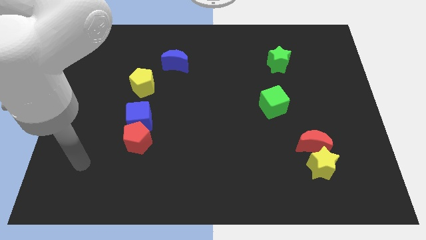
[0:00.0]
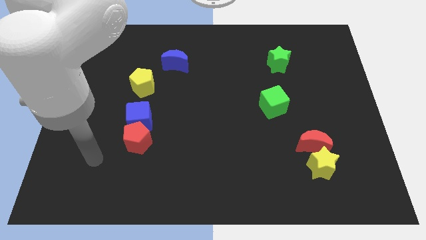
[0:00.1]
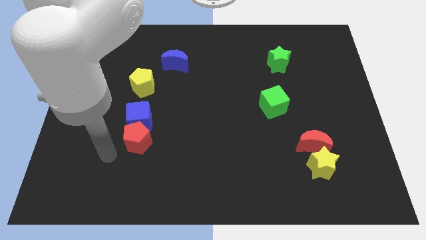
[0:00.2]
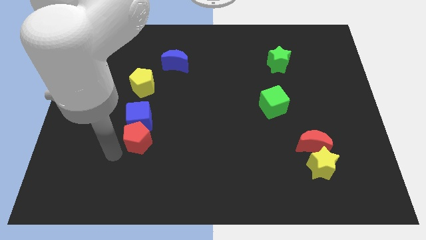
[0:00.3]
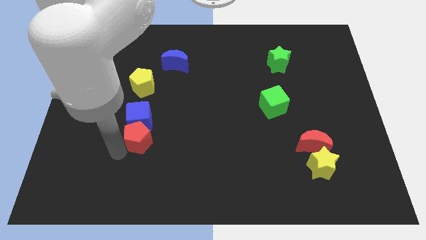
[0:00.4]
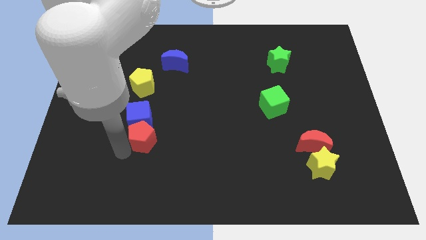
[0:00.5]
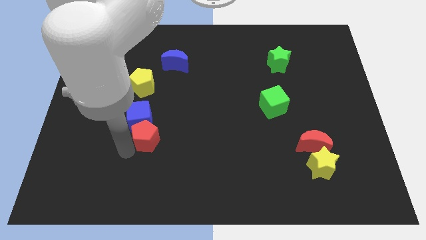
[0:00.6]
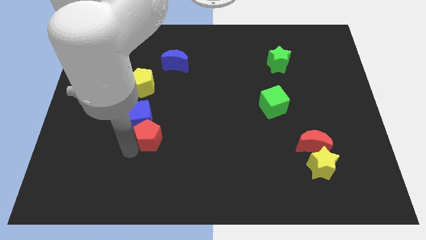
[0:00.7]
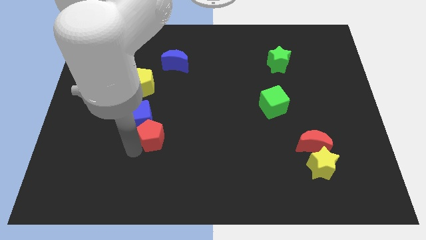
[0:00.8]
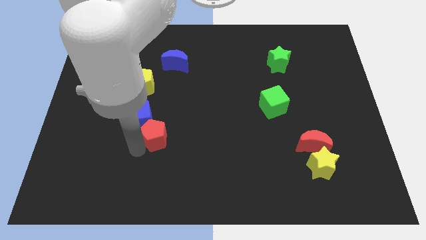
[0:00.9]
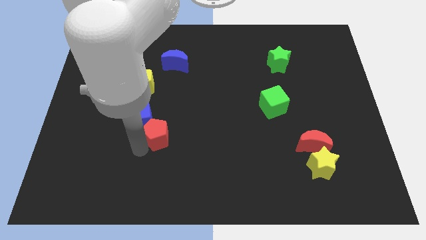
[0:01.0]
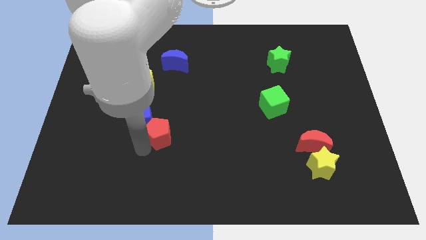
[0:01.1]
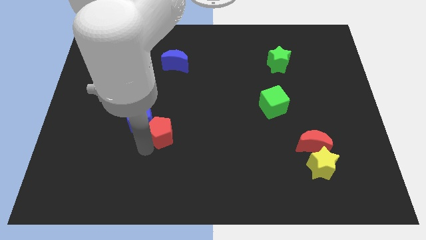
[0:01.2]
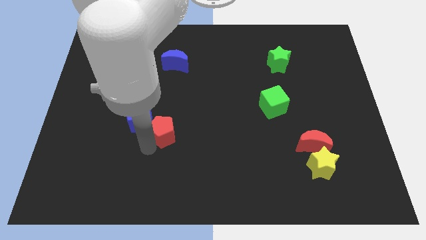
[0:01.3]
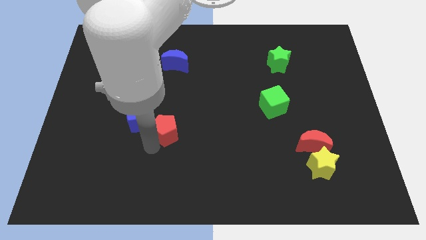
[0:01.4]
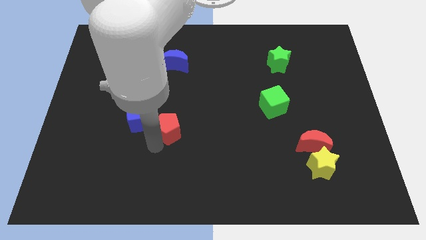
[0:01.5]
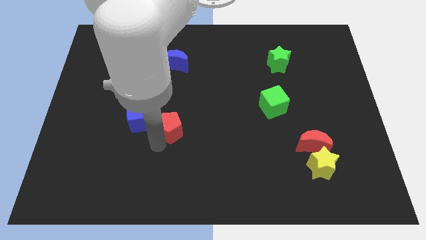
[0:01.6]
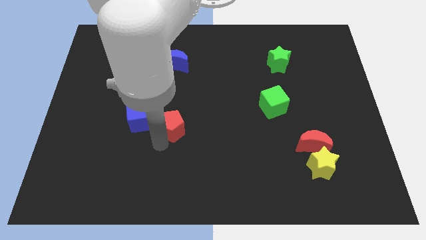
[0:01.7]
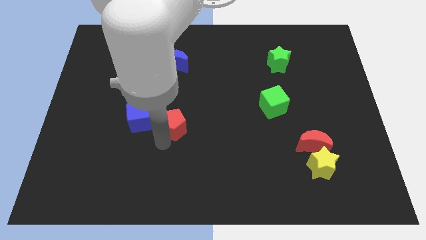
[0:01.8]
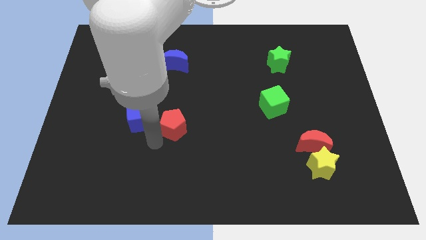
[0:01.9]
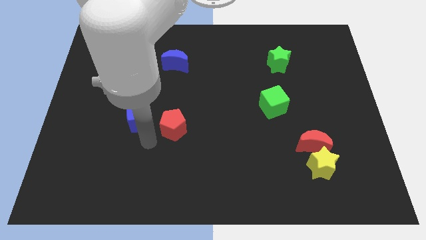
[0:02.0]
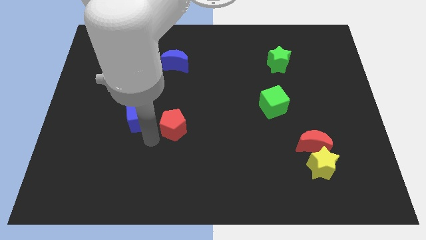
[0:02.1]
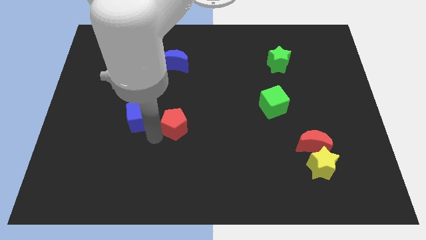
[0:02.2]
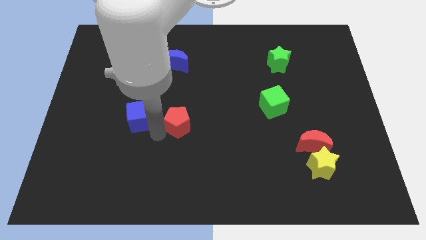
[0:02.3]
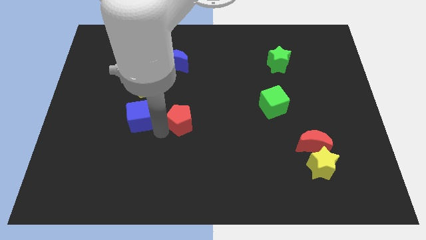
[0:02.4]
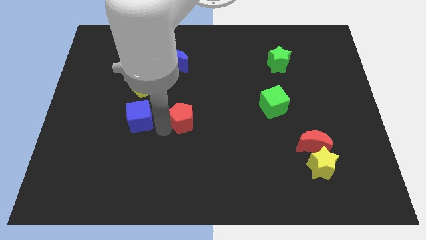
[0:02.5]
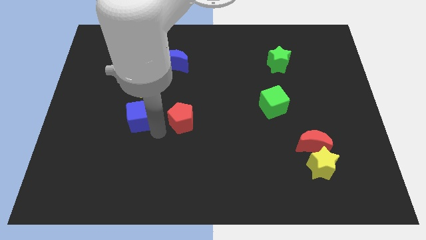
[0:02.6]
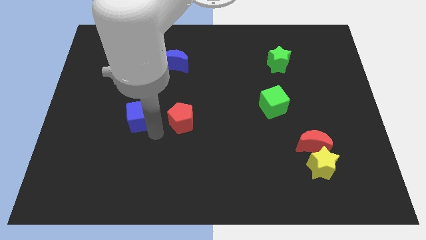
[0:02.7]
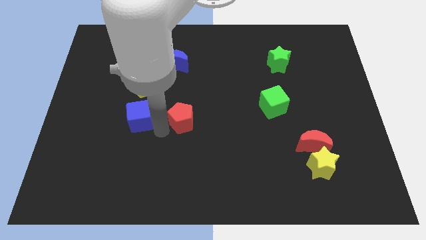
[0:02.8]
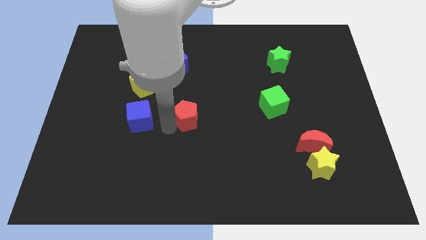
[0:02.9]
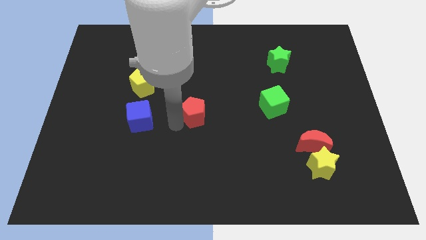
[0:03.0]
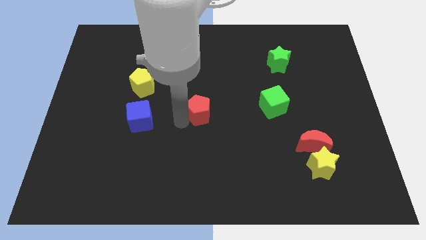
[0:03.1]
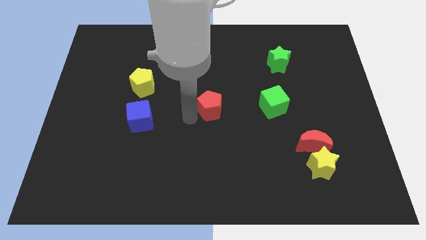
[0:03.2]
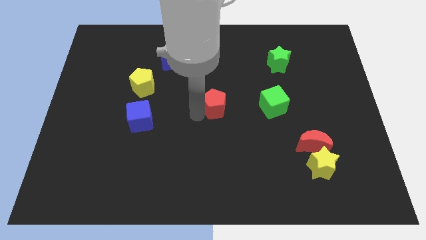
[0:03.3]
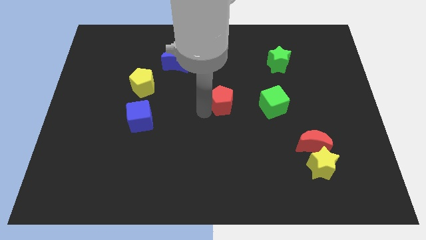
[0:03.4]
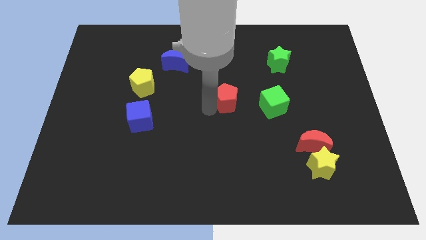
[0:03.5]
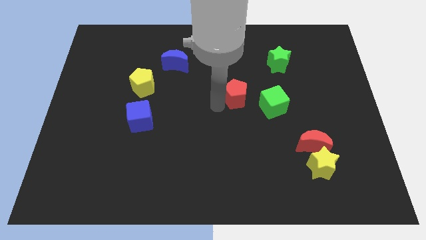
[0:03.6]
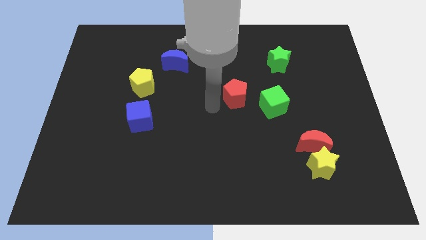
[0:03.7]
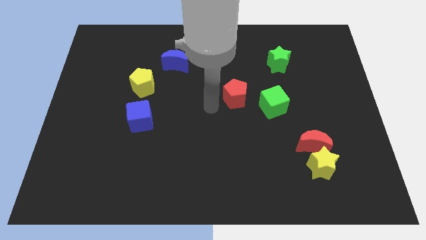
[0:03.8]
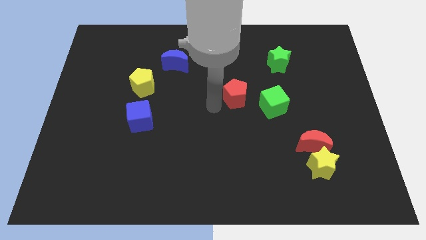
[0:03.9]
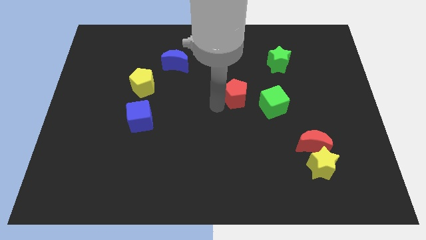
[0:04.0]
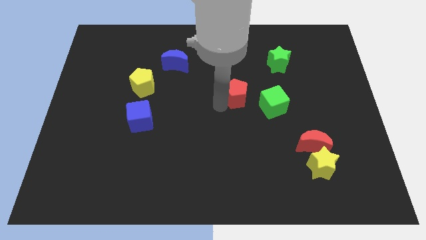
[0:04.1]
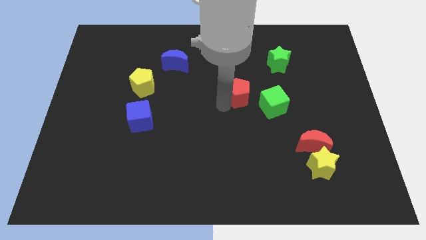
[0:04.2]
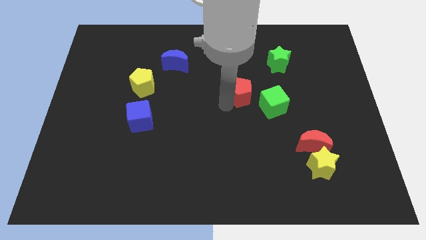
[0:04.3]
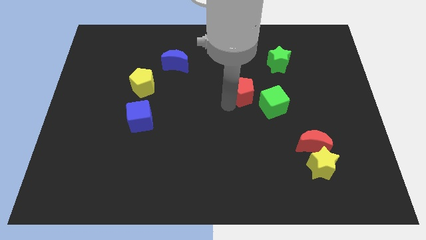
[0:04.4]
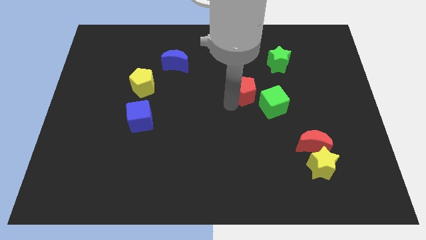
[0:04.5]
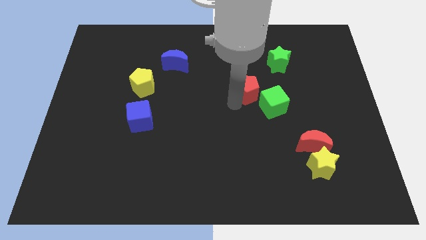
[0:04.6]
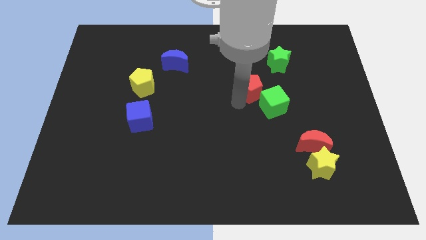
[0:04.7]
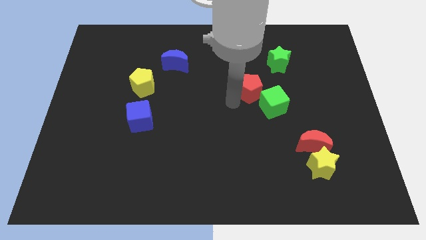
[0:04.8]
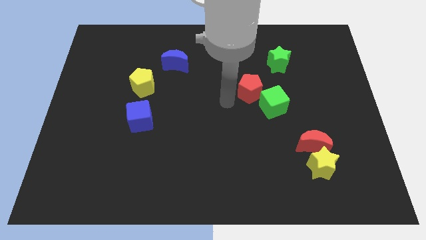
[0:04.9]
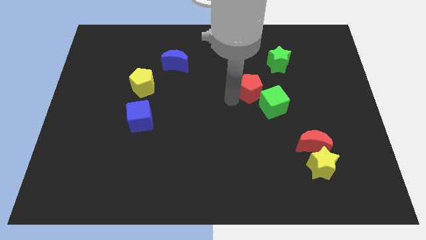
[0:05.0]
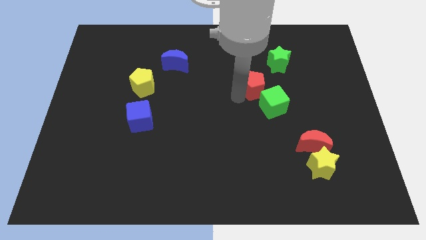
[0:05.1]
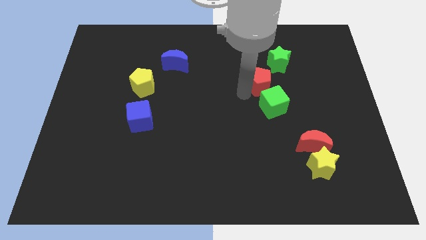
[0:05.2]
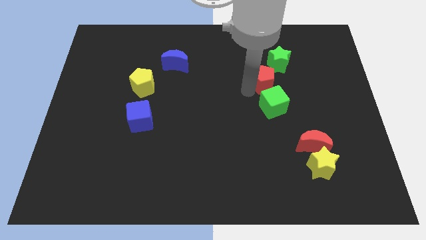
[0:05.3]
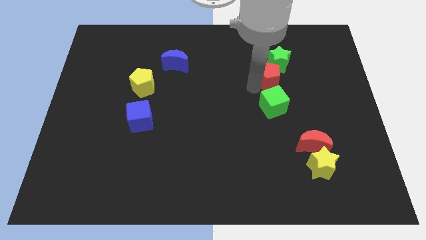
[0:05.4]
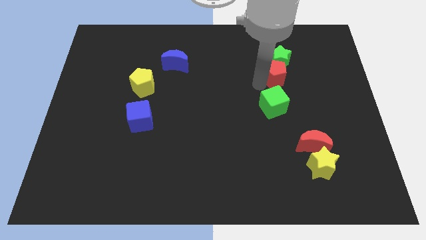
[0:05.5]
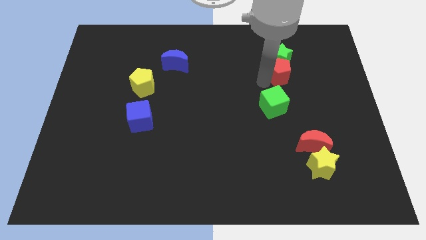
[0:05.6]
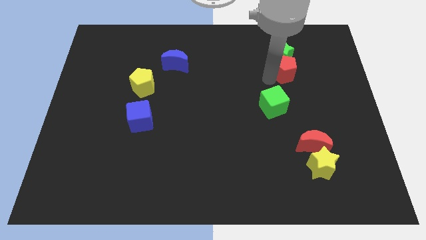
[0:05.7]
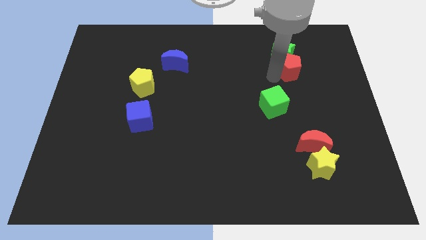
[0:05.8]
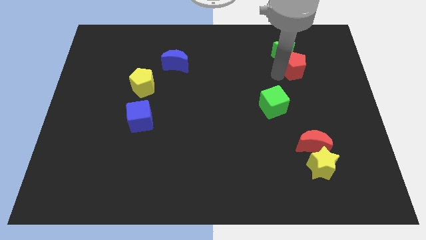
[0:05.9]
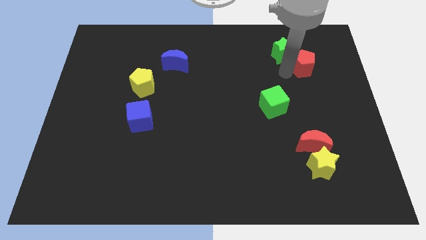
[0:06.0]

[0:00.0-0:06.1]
slide the red pentagon to the right of the green star
